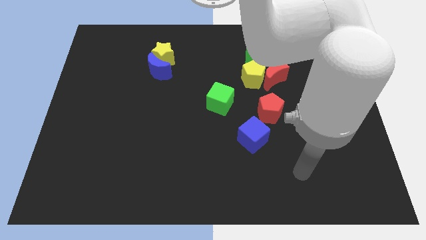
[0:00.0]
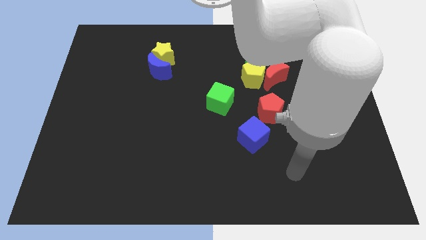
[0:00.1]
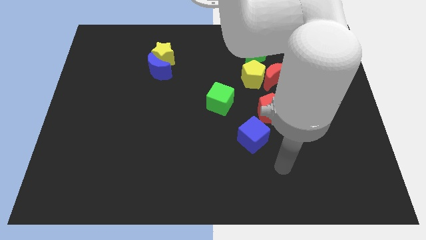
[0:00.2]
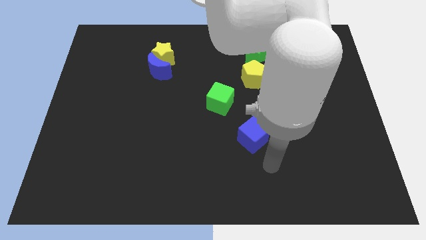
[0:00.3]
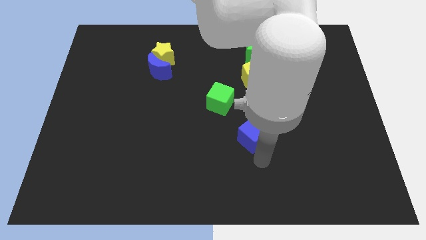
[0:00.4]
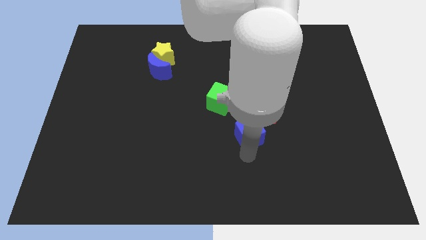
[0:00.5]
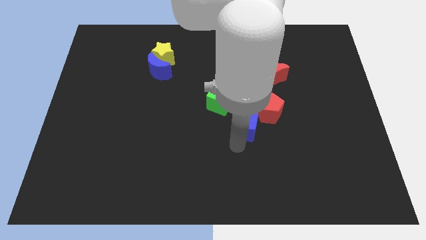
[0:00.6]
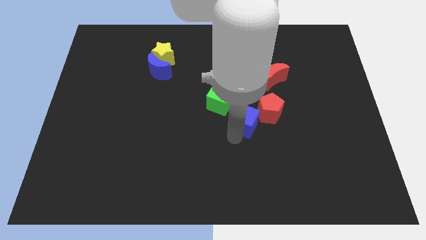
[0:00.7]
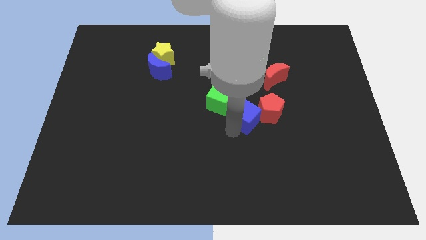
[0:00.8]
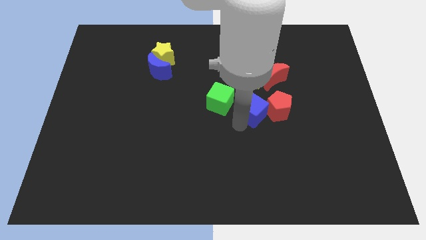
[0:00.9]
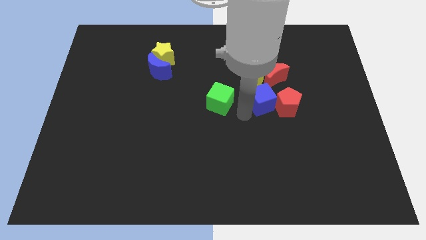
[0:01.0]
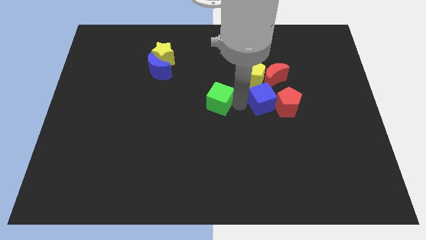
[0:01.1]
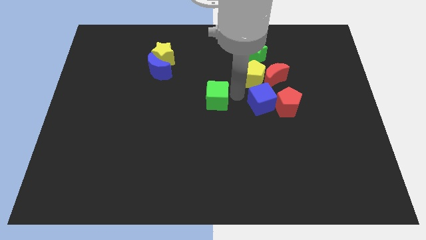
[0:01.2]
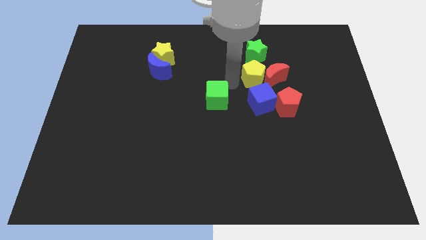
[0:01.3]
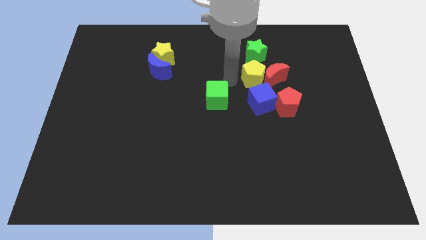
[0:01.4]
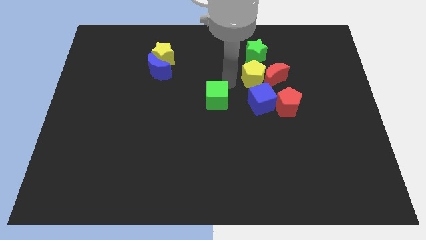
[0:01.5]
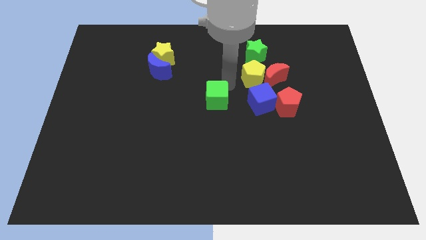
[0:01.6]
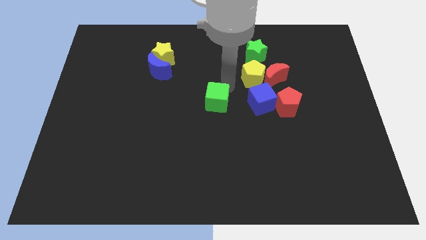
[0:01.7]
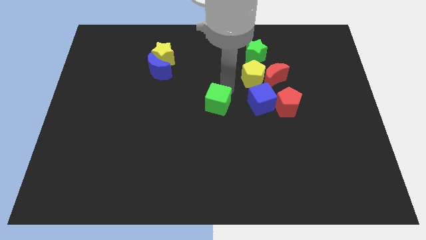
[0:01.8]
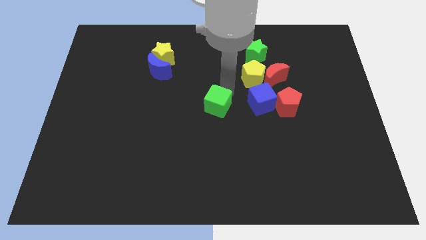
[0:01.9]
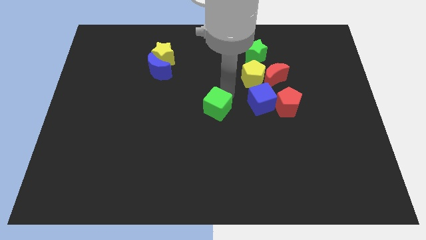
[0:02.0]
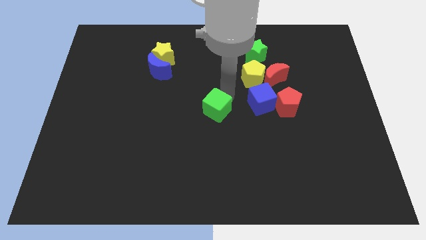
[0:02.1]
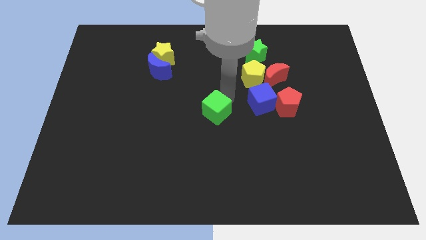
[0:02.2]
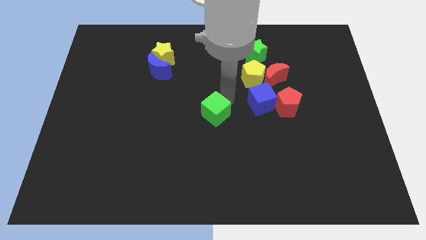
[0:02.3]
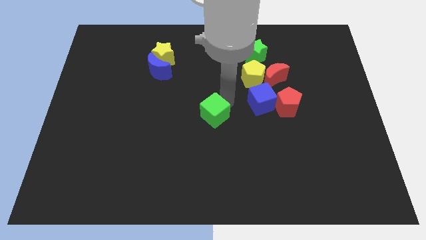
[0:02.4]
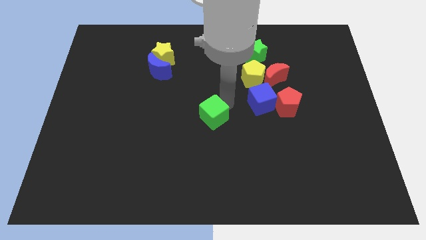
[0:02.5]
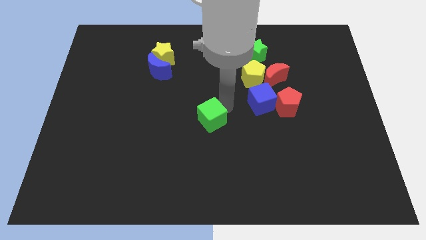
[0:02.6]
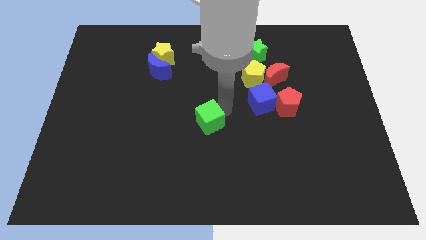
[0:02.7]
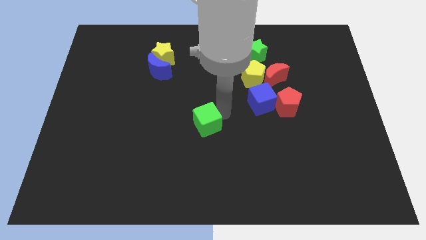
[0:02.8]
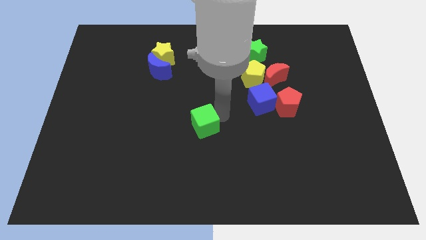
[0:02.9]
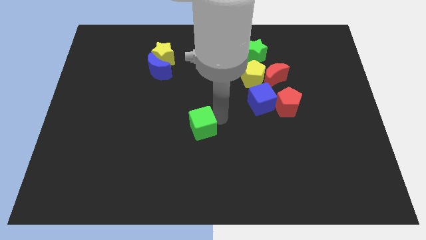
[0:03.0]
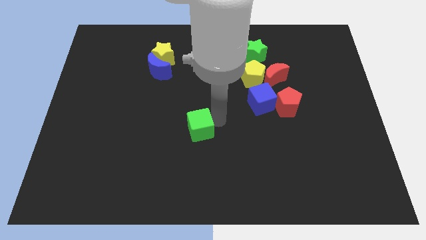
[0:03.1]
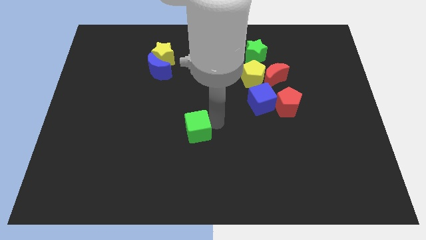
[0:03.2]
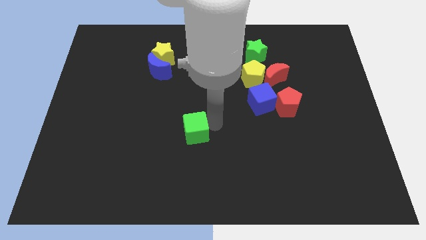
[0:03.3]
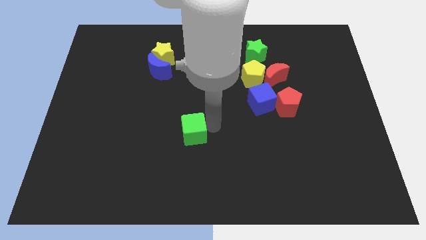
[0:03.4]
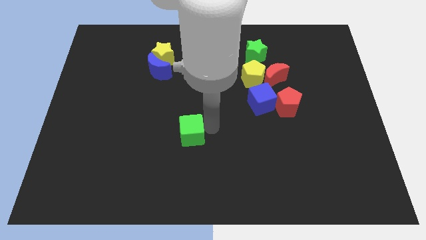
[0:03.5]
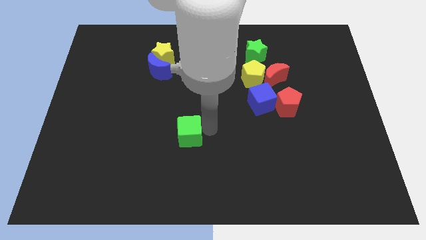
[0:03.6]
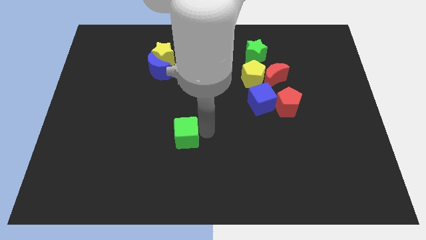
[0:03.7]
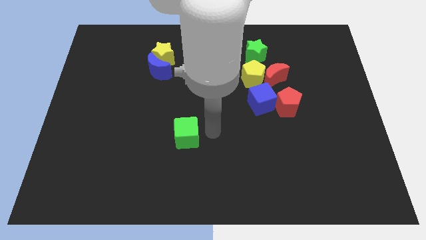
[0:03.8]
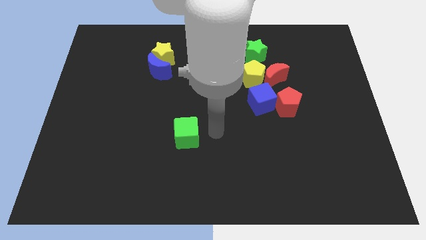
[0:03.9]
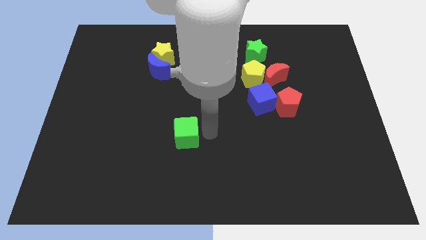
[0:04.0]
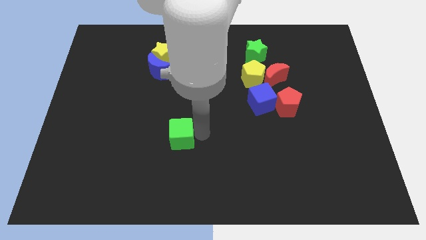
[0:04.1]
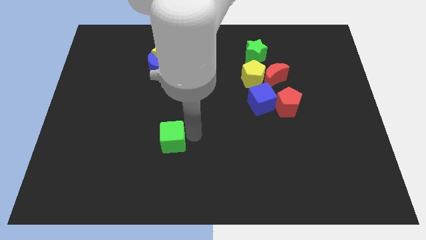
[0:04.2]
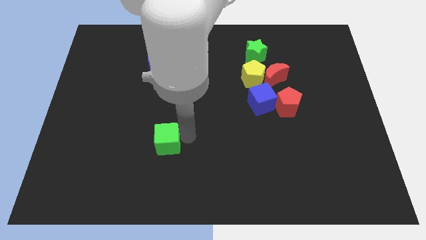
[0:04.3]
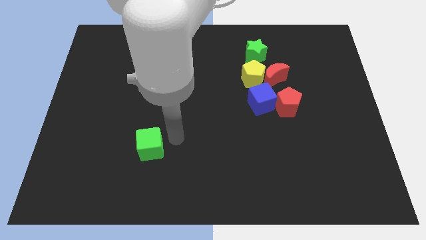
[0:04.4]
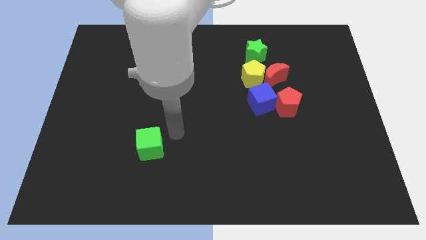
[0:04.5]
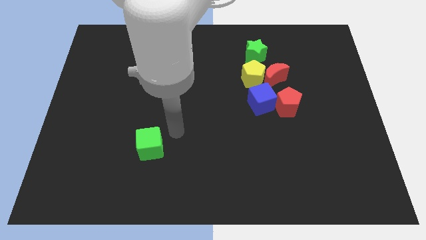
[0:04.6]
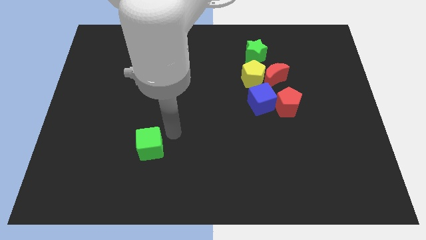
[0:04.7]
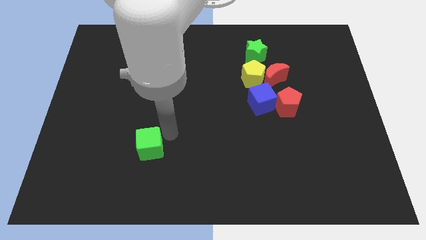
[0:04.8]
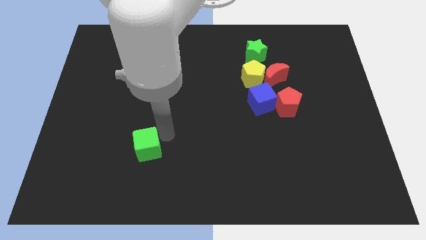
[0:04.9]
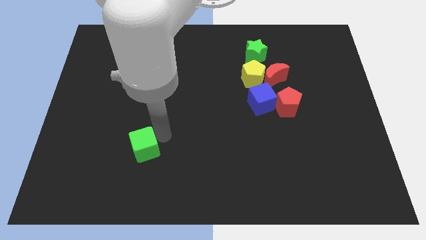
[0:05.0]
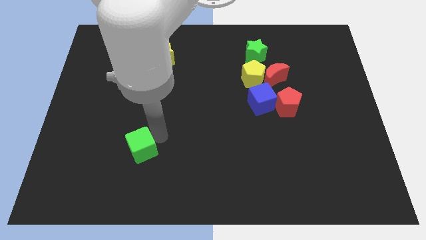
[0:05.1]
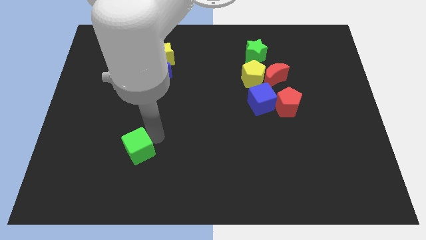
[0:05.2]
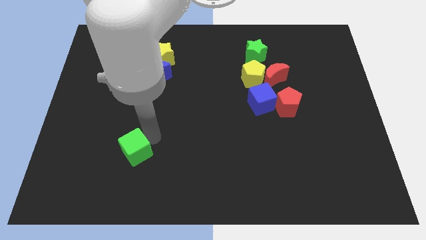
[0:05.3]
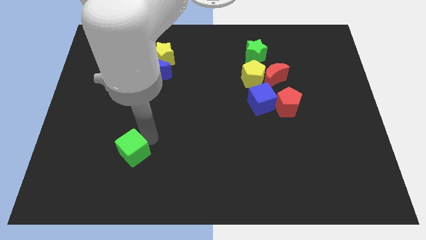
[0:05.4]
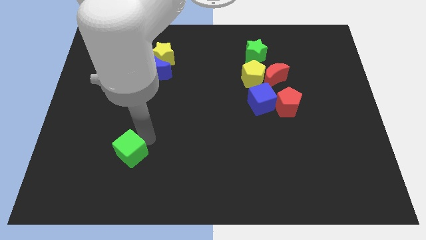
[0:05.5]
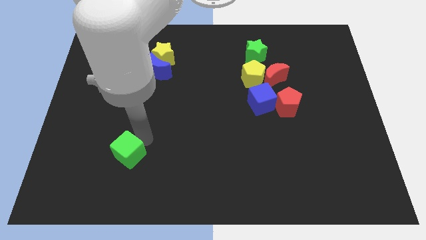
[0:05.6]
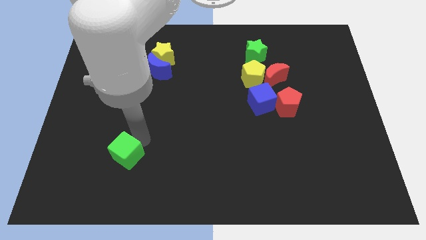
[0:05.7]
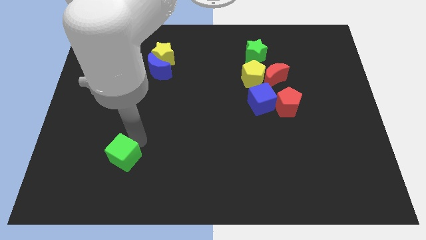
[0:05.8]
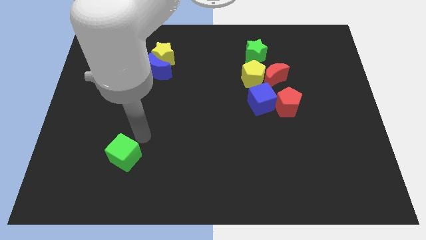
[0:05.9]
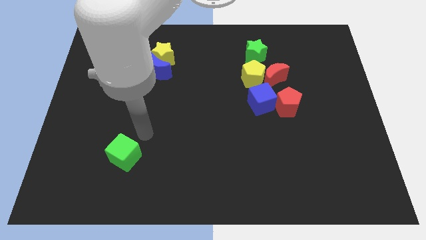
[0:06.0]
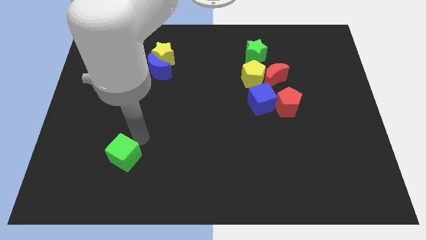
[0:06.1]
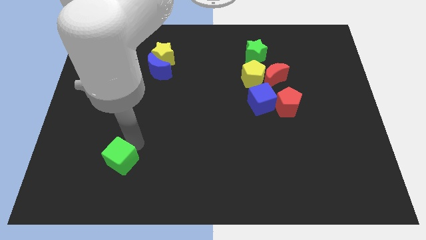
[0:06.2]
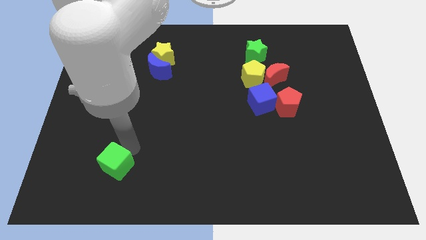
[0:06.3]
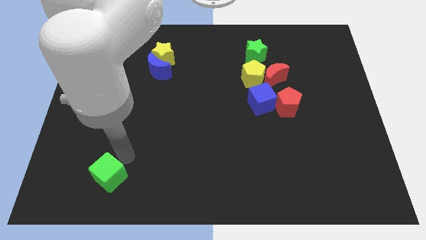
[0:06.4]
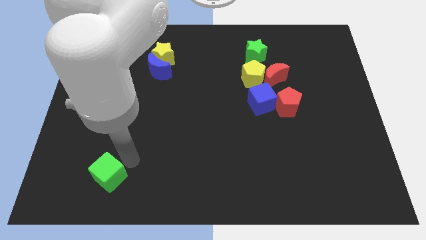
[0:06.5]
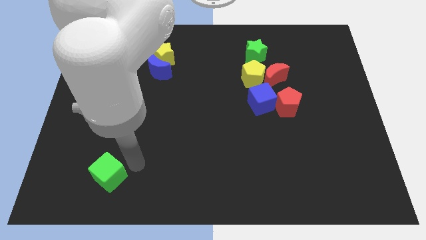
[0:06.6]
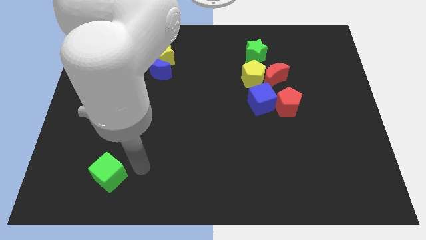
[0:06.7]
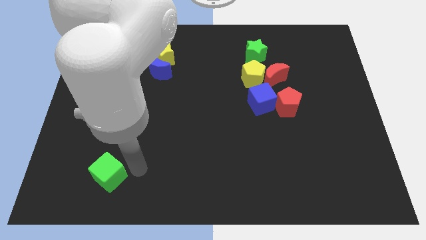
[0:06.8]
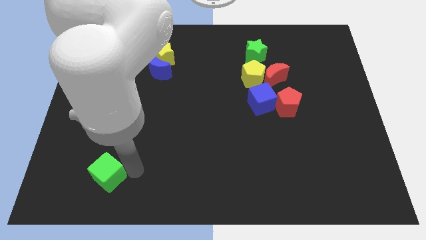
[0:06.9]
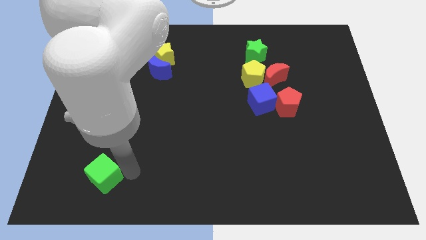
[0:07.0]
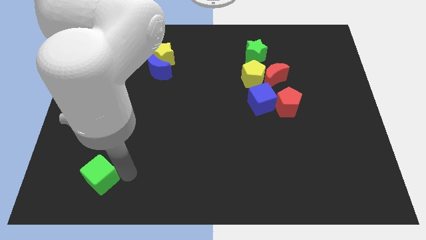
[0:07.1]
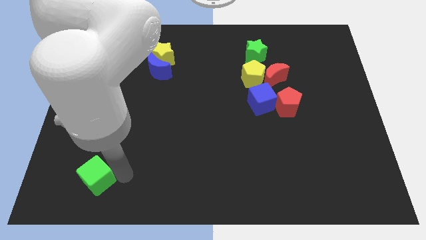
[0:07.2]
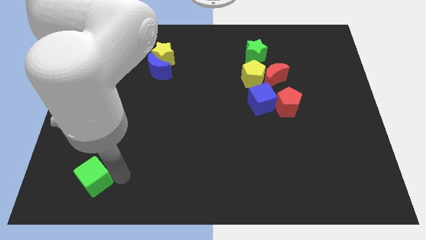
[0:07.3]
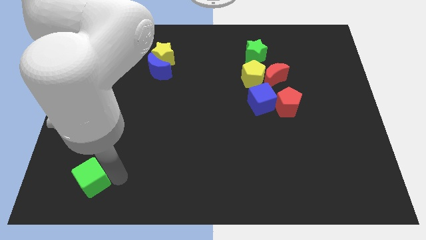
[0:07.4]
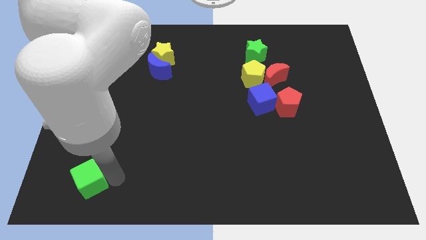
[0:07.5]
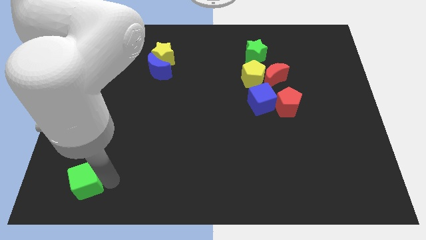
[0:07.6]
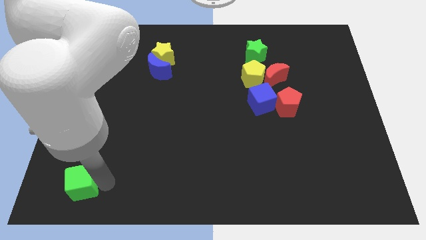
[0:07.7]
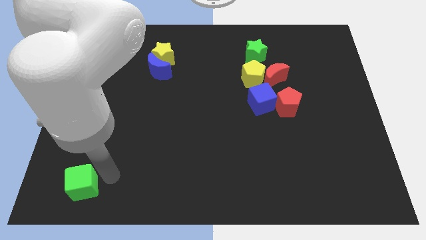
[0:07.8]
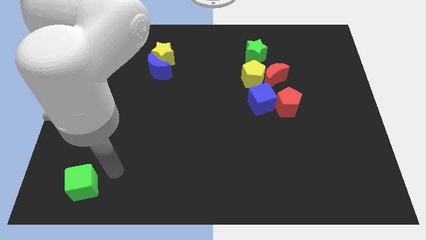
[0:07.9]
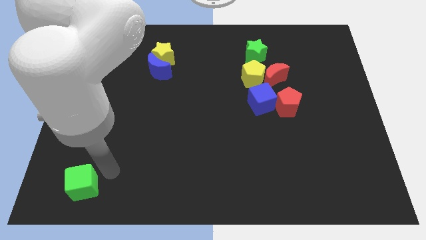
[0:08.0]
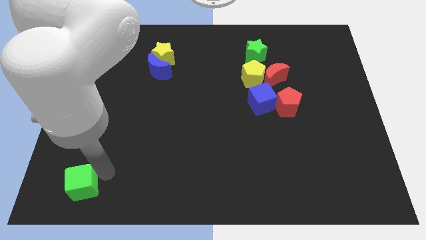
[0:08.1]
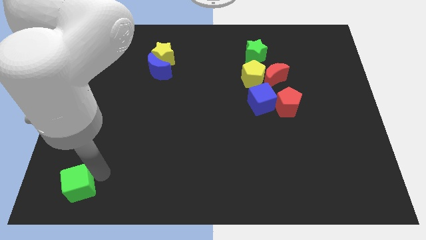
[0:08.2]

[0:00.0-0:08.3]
put the green cube to the bottom left corner
